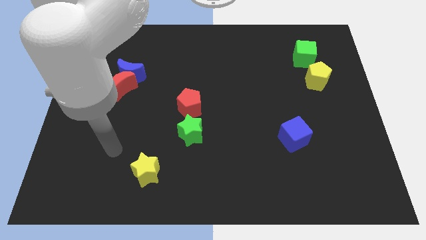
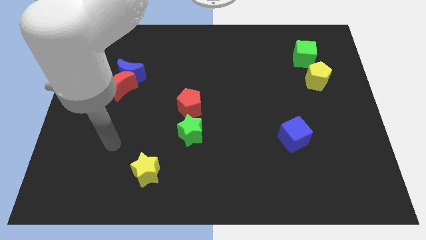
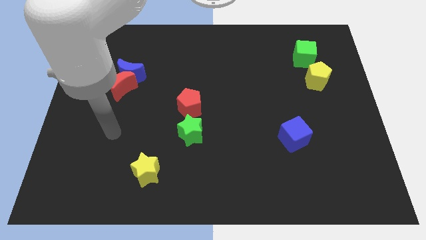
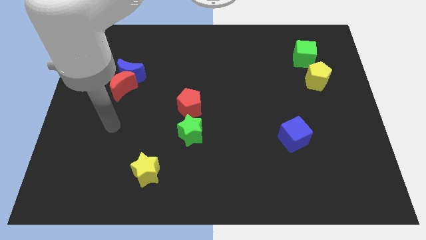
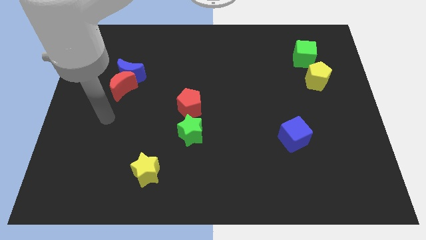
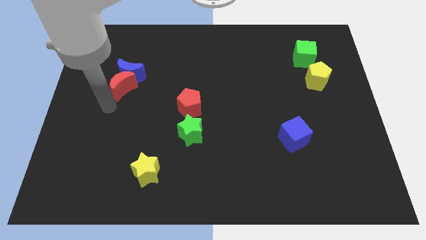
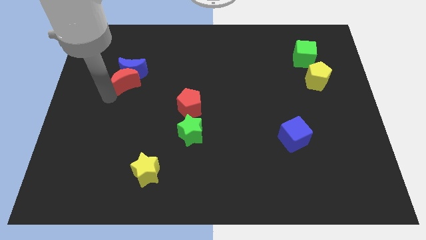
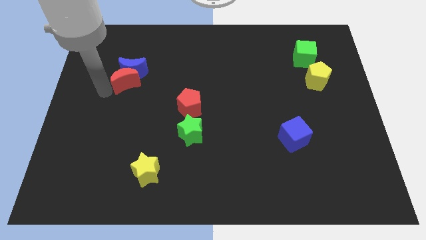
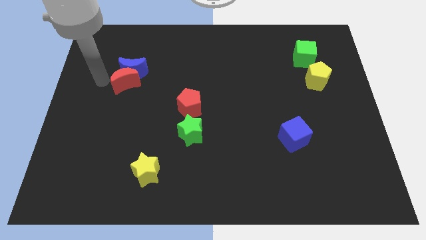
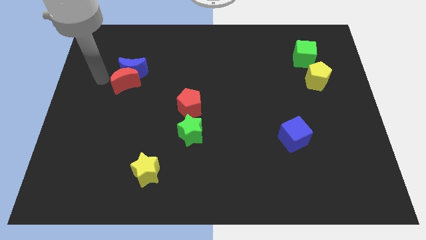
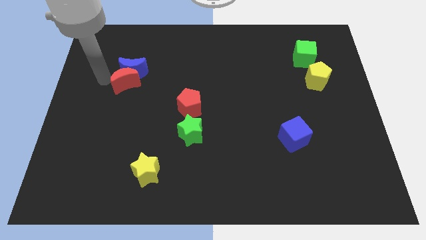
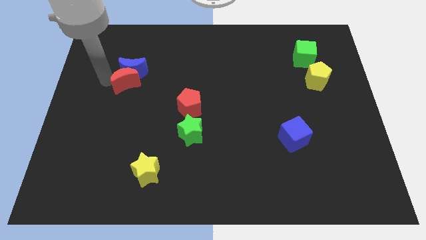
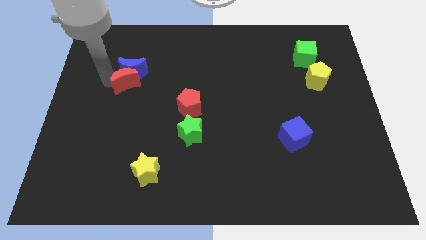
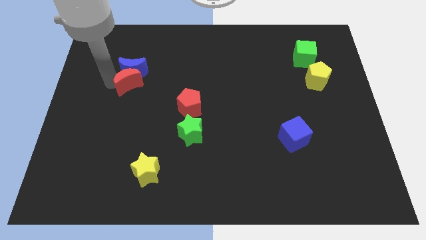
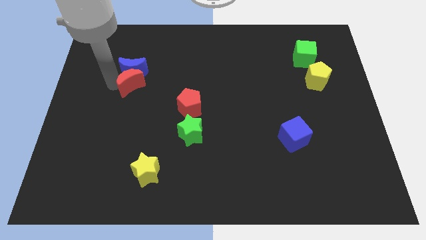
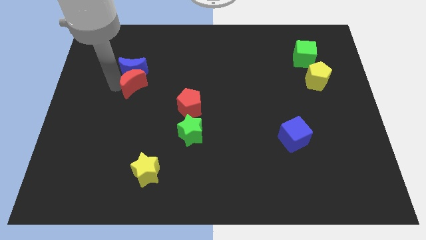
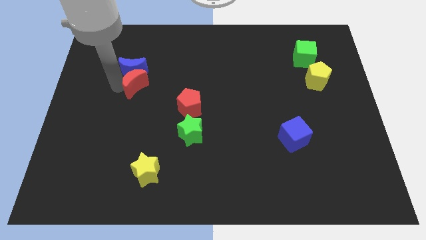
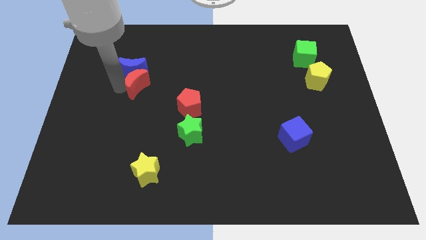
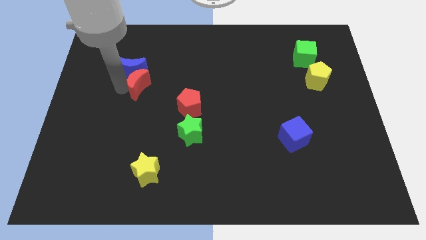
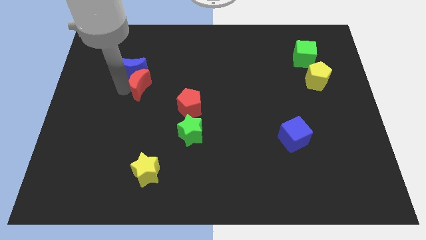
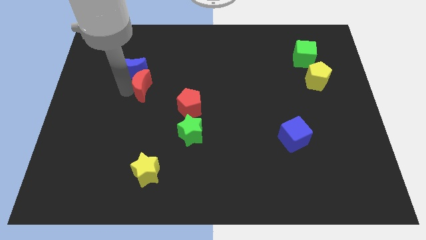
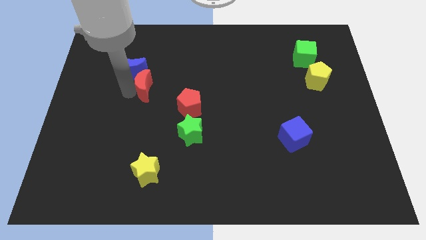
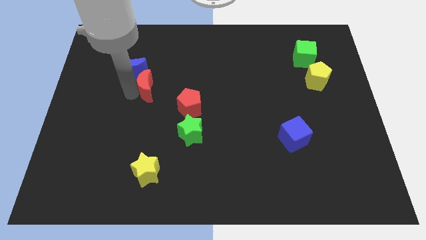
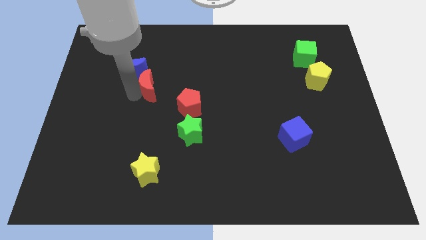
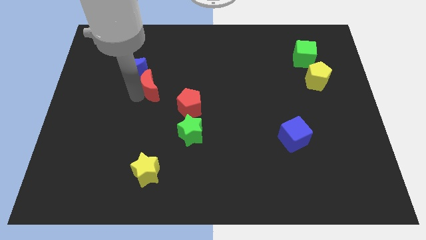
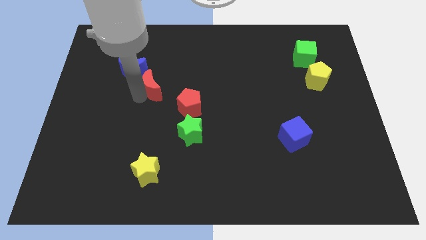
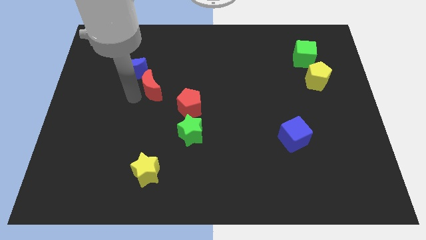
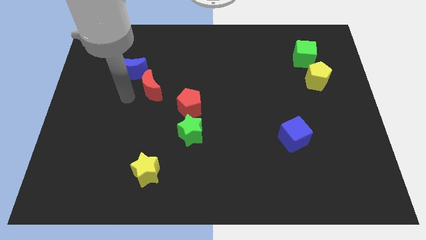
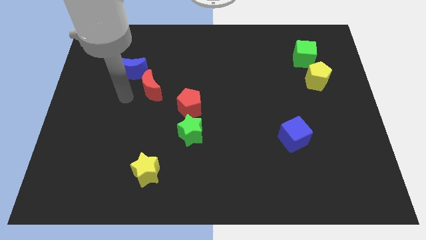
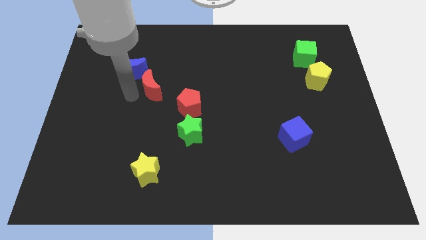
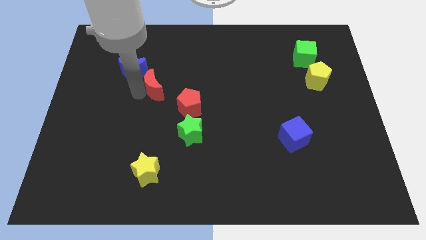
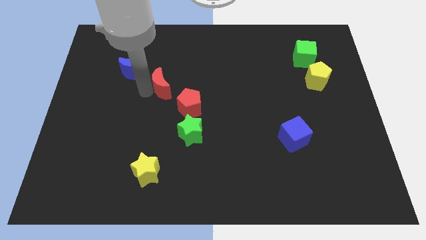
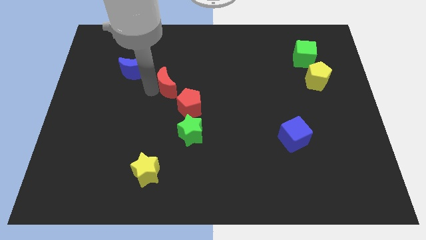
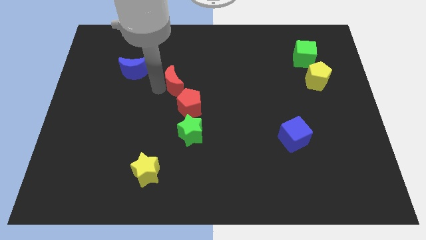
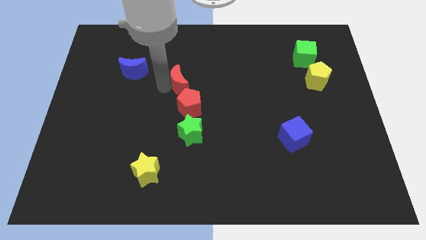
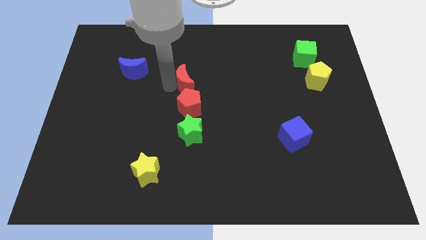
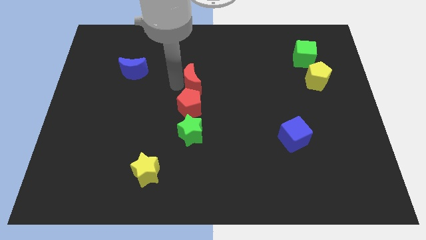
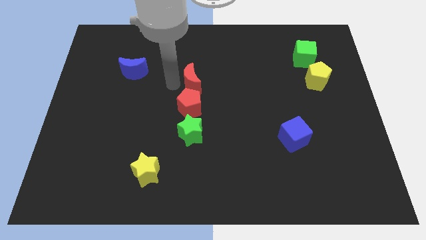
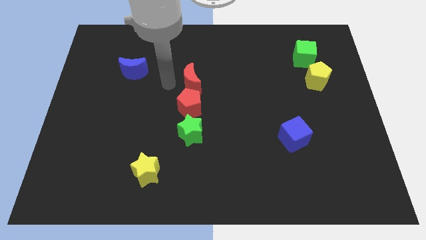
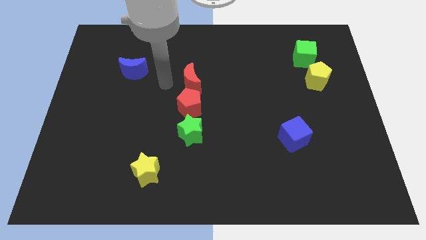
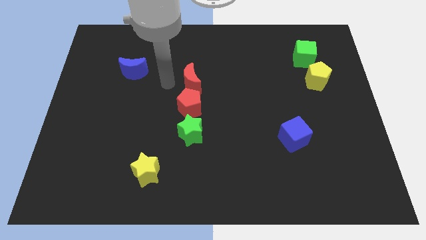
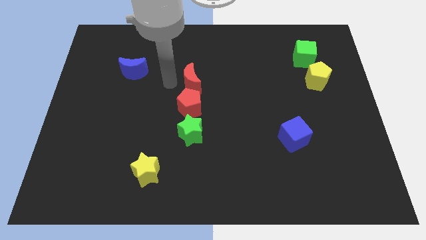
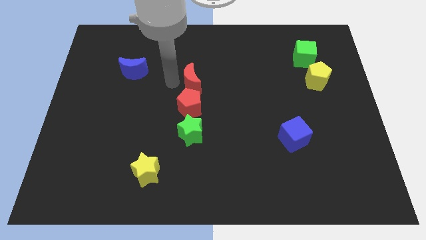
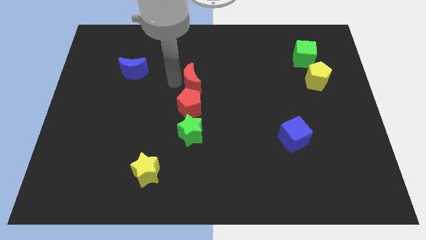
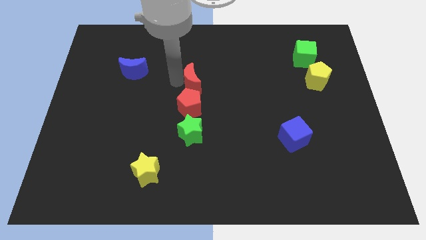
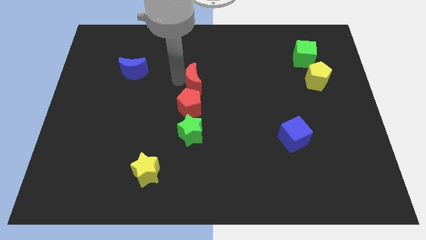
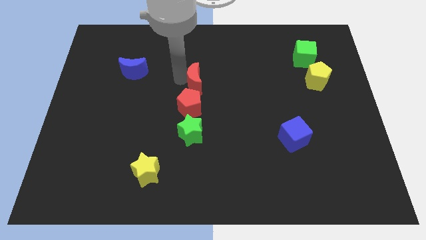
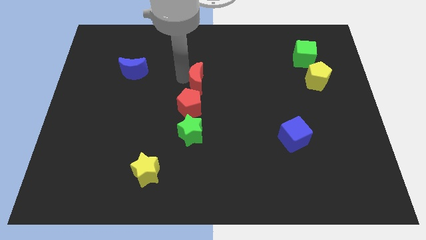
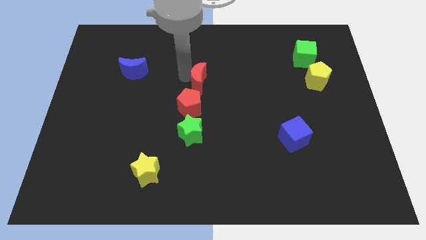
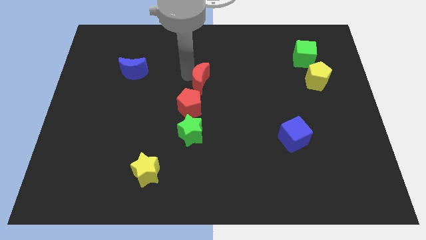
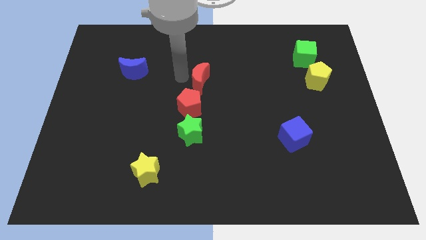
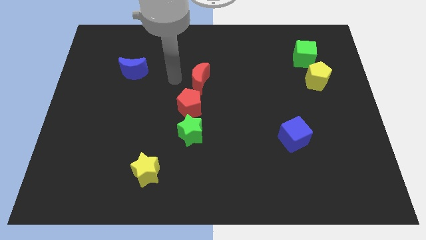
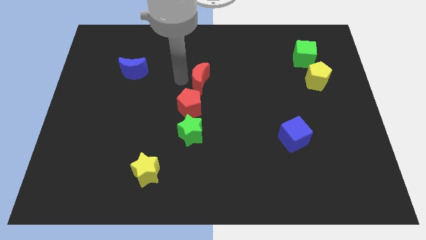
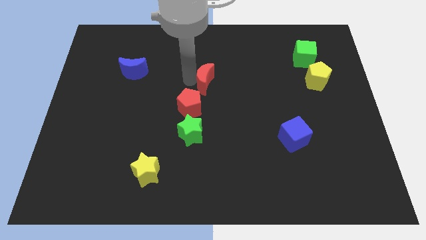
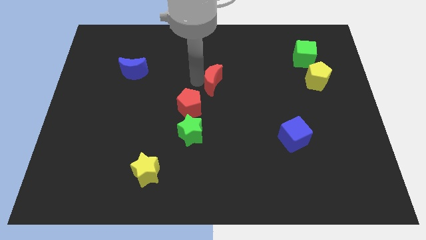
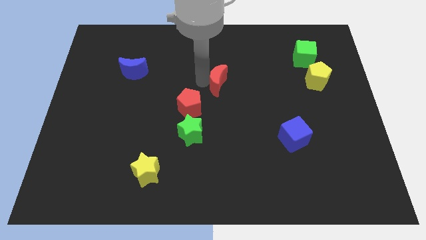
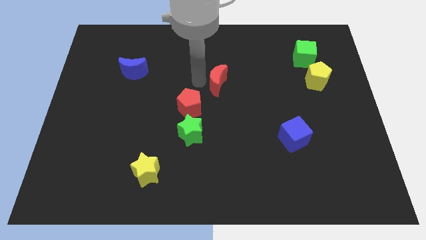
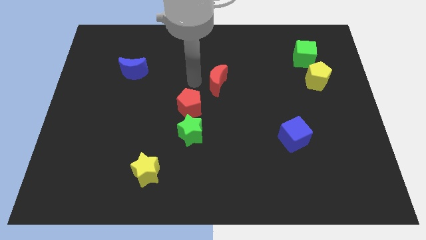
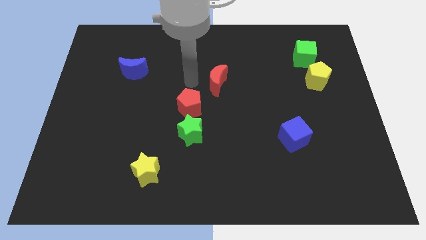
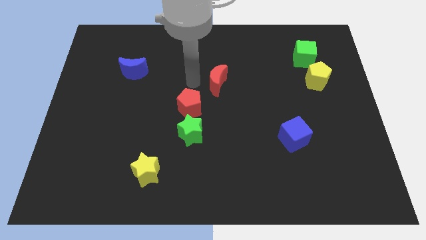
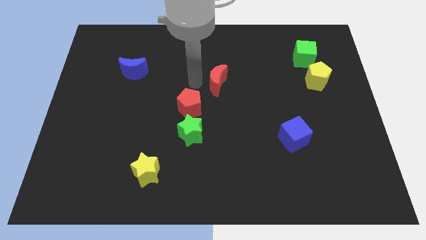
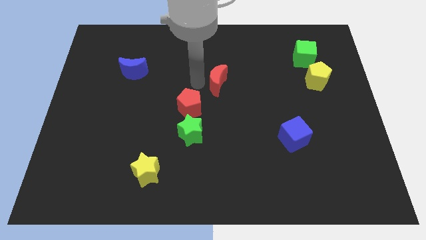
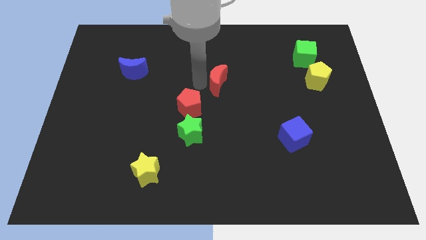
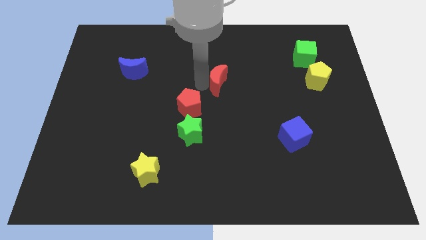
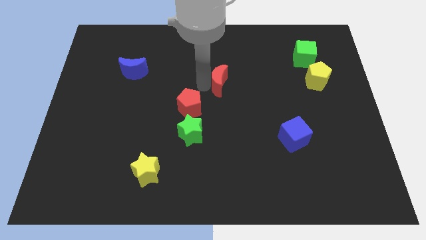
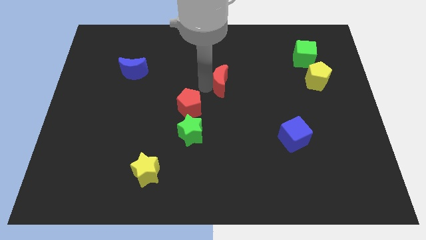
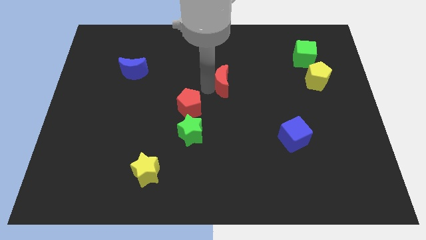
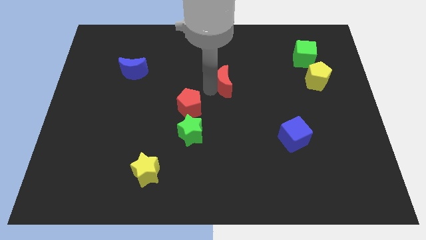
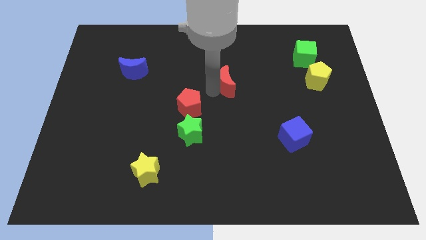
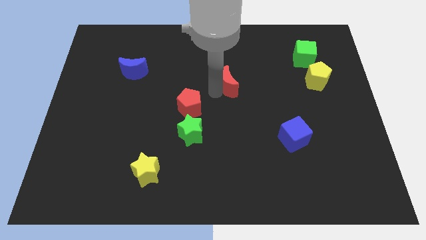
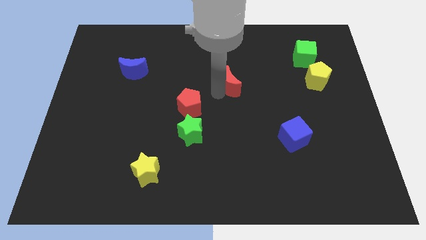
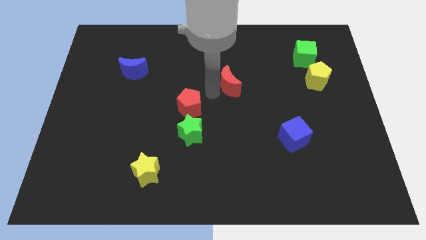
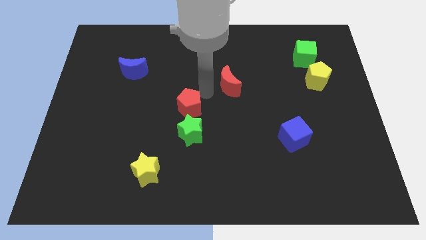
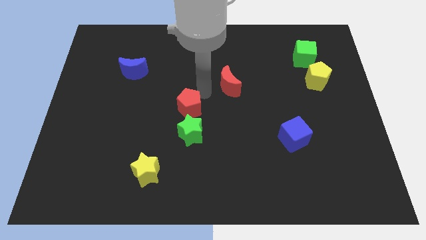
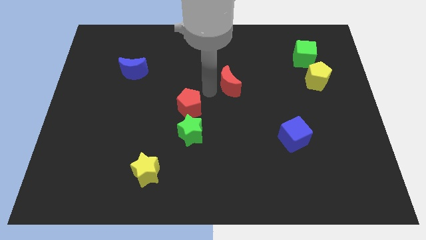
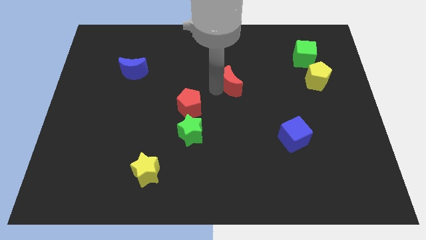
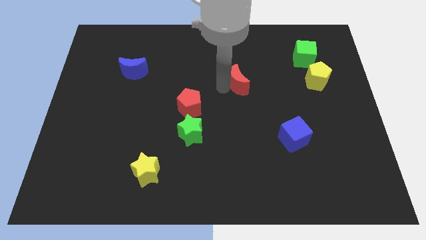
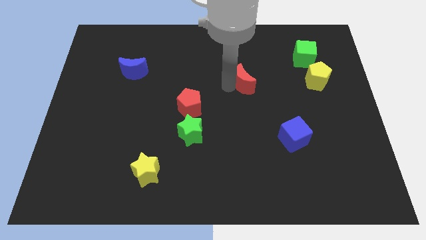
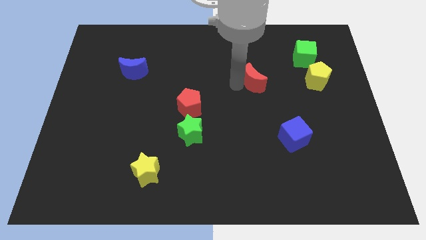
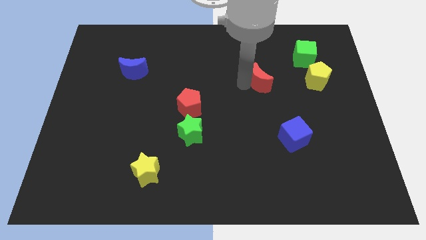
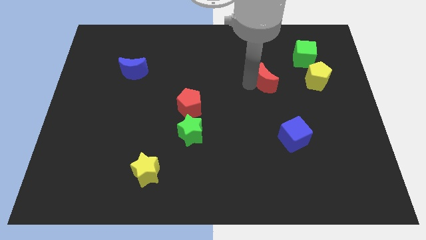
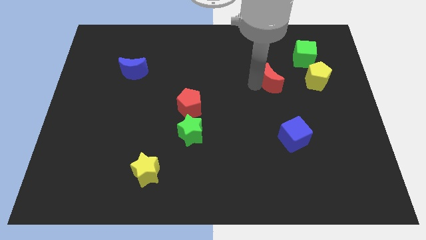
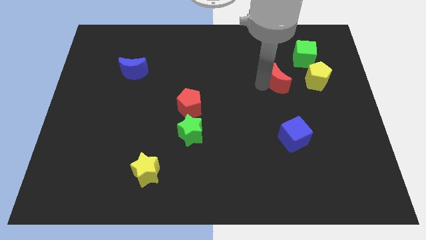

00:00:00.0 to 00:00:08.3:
slide the red moon to the bottom left side of the green cube

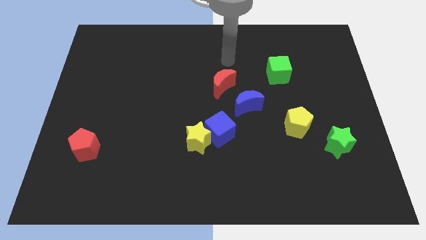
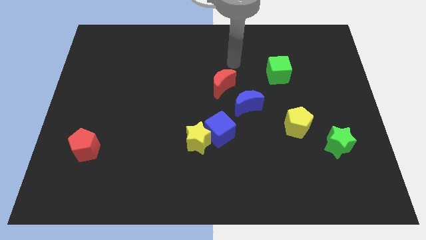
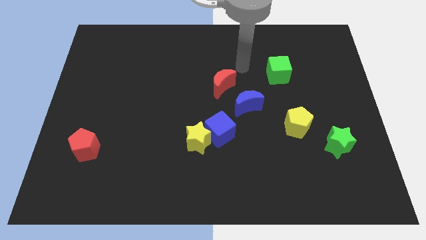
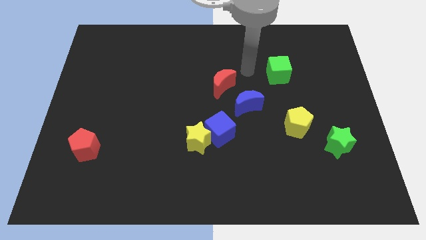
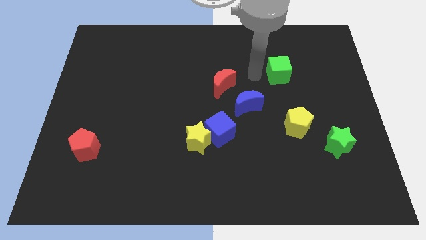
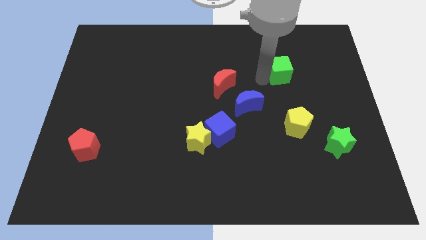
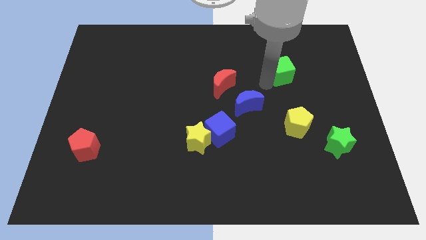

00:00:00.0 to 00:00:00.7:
push the yellow pentagon to the bottom of the green cube
